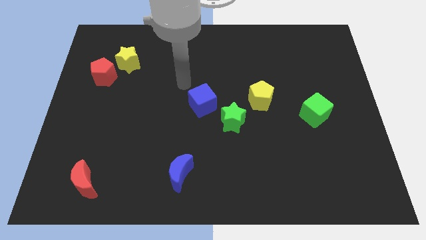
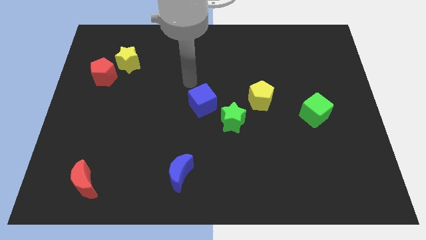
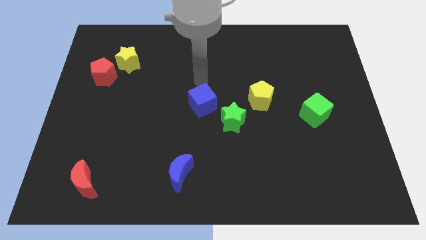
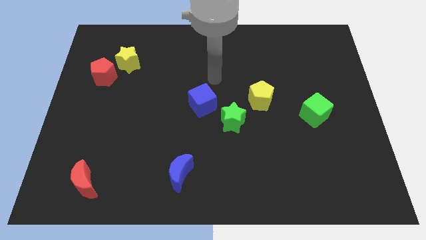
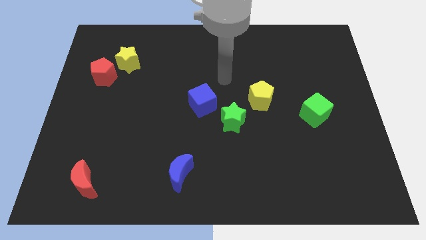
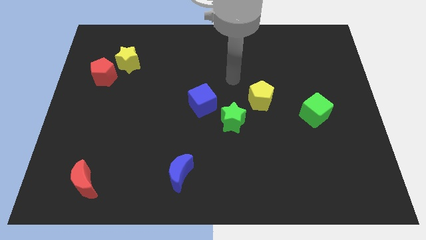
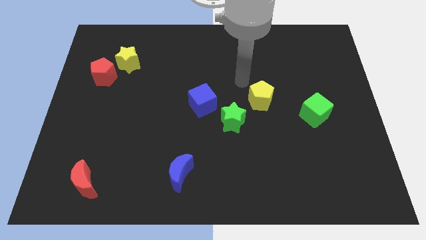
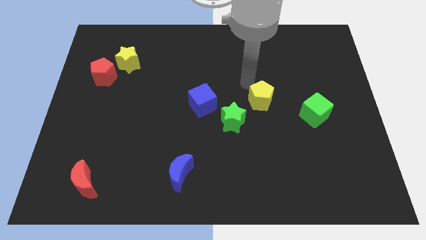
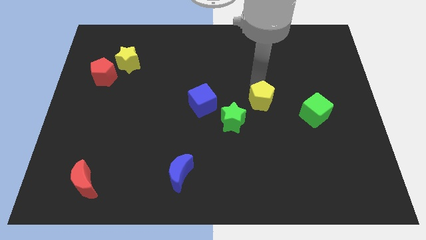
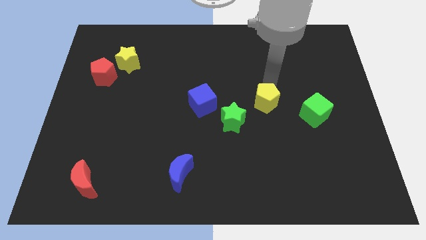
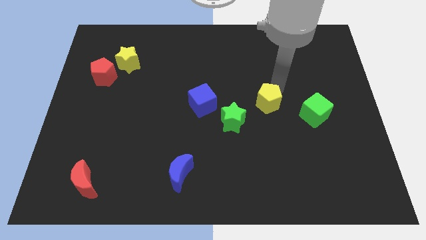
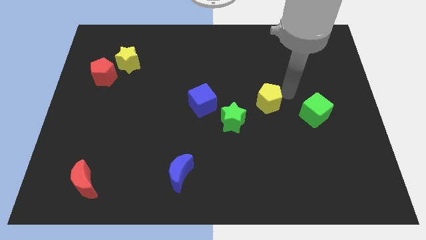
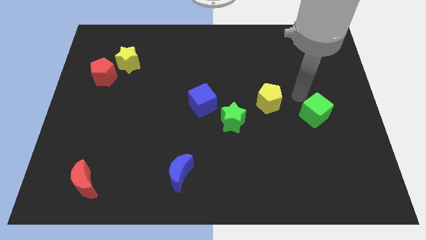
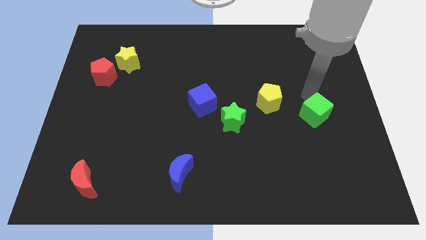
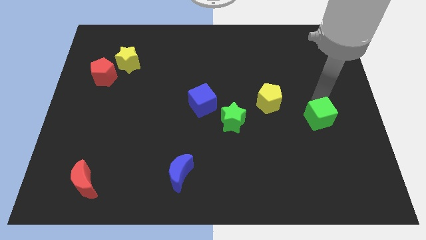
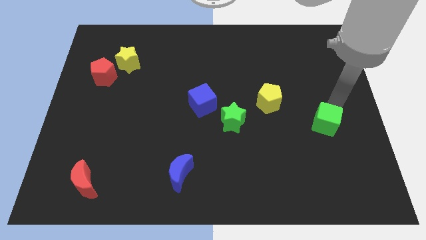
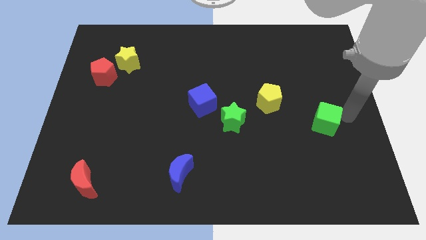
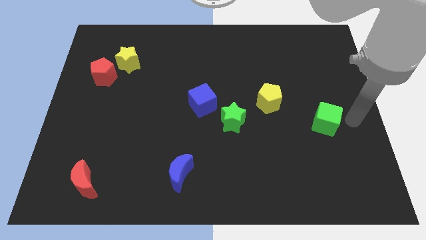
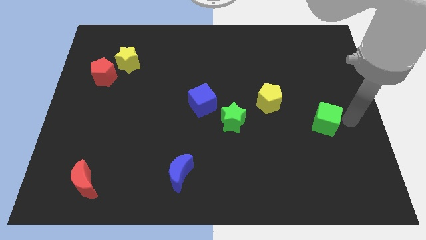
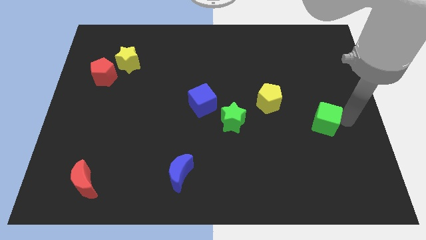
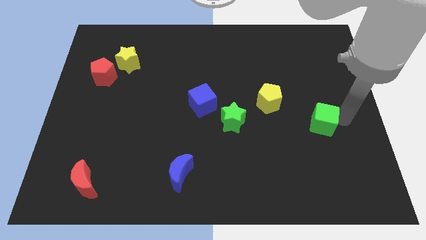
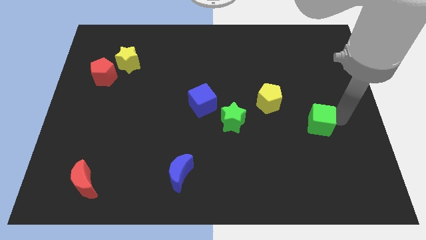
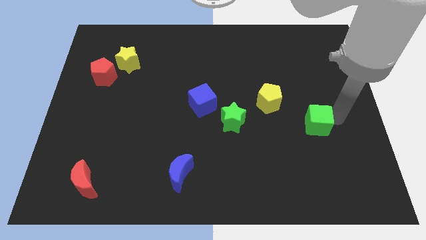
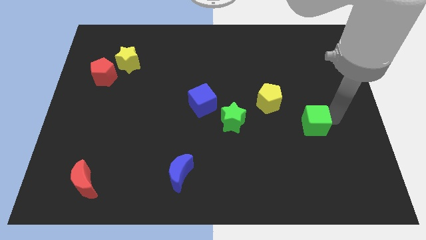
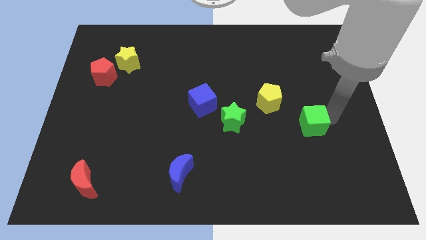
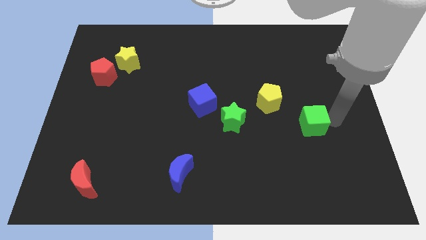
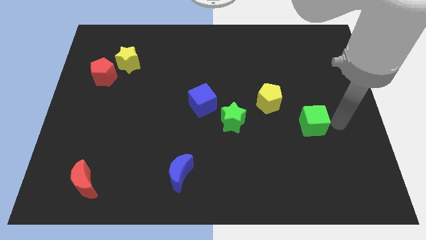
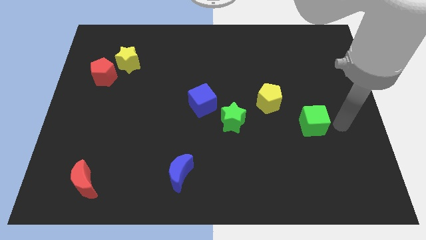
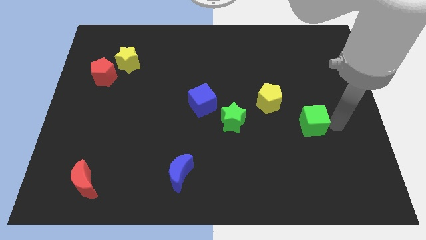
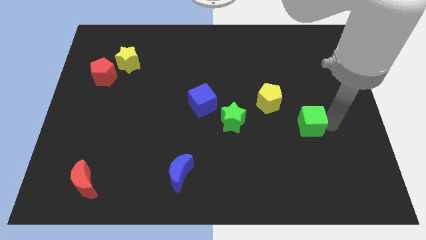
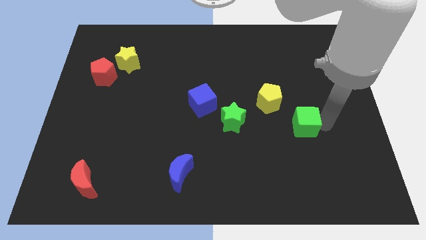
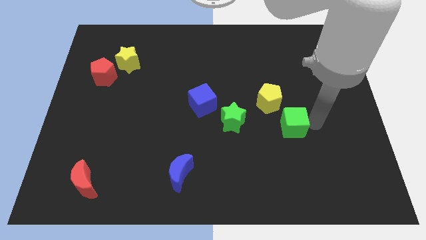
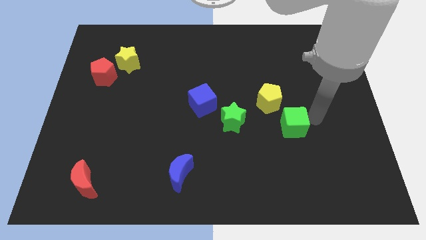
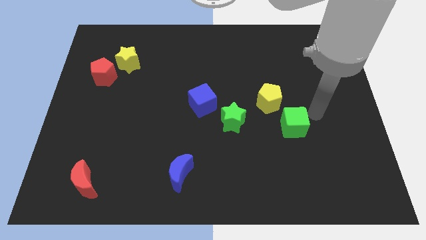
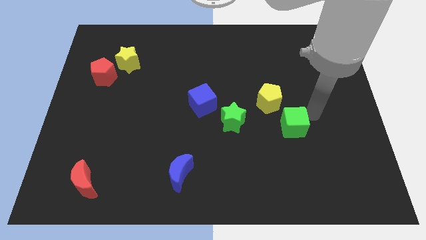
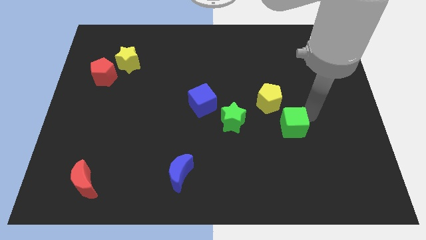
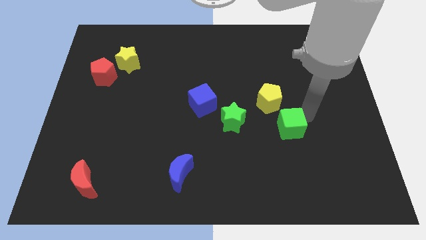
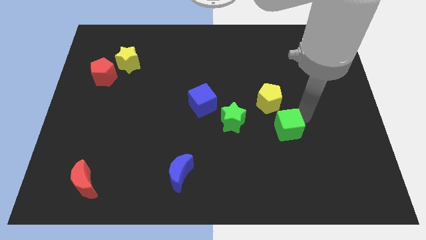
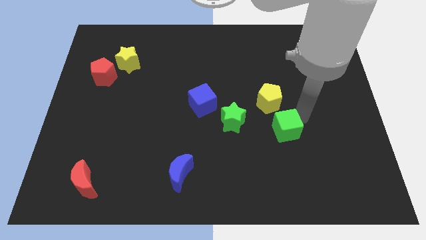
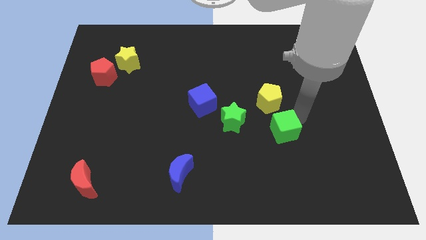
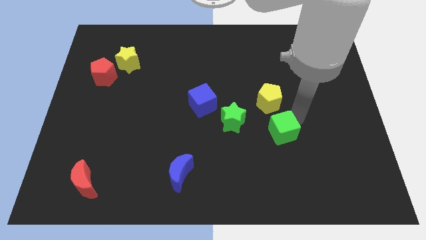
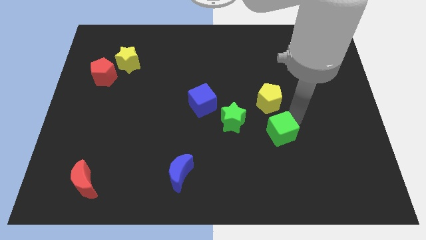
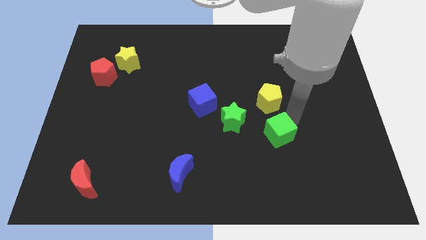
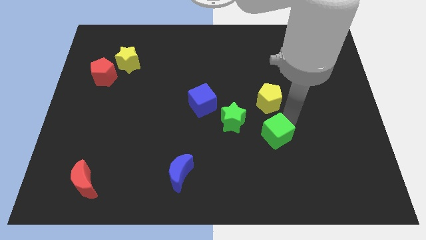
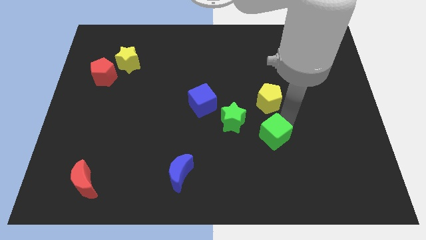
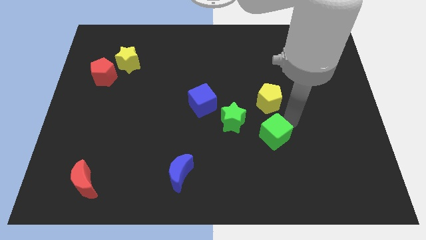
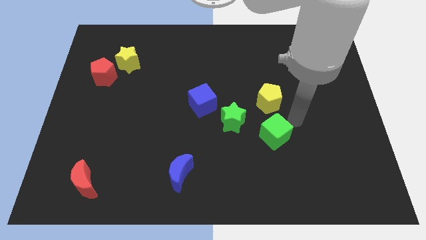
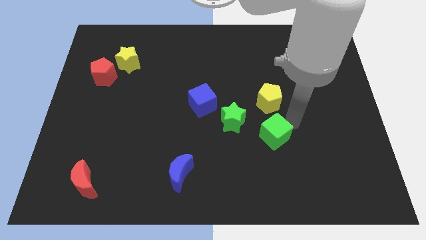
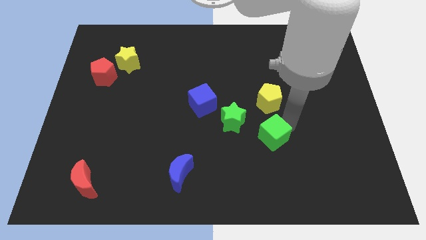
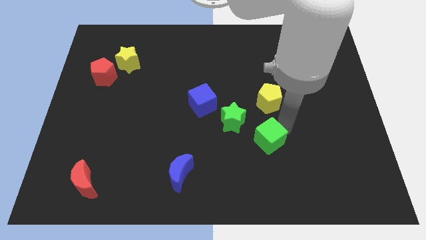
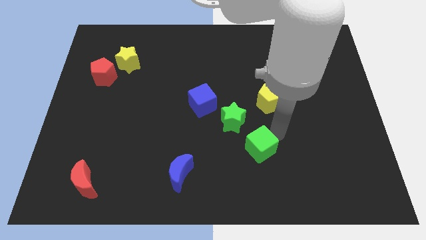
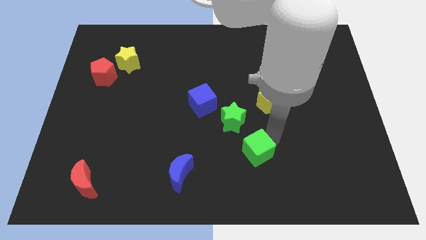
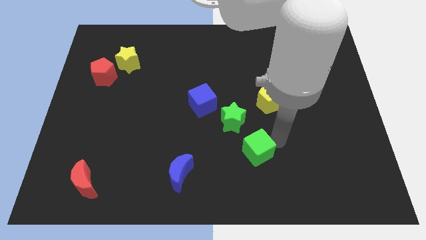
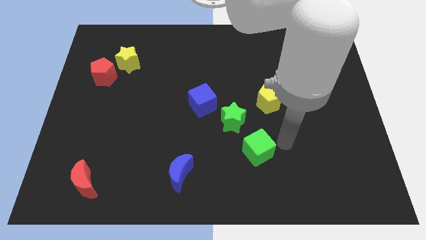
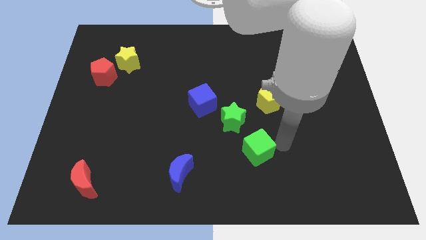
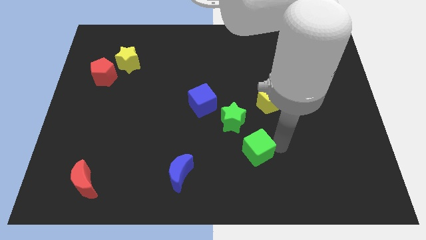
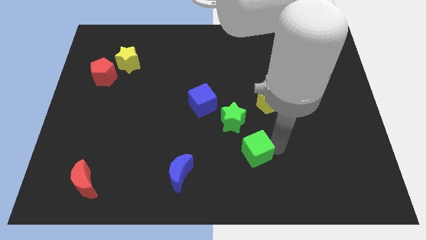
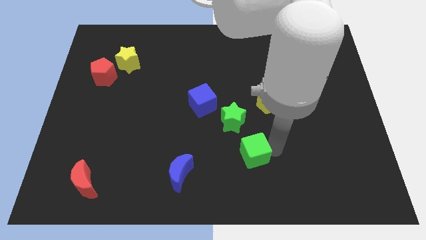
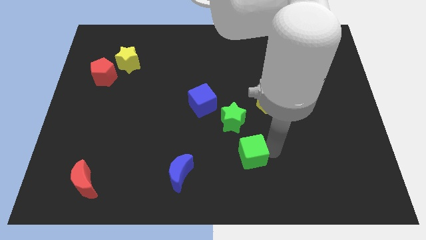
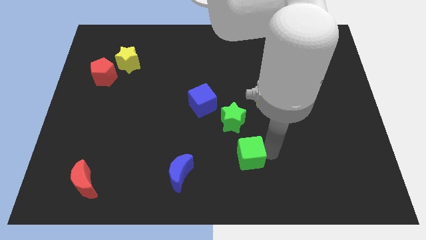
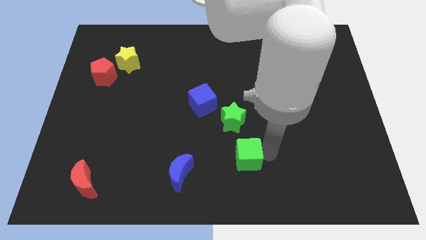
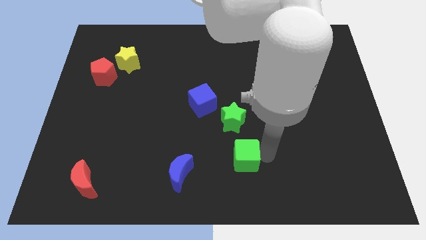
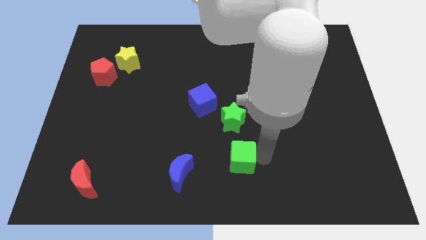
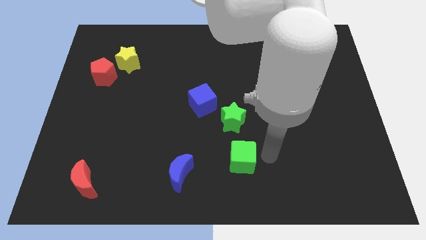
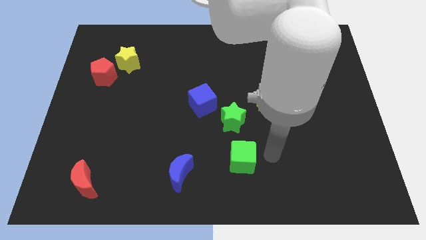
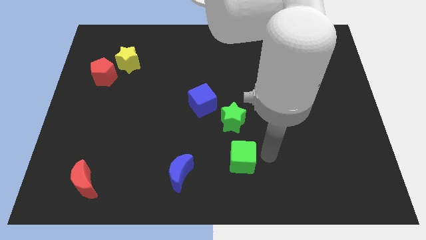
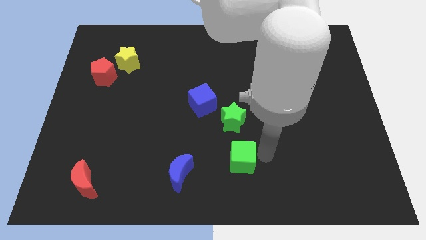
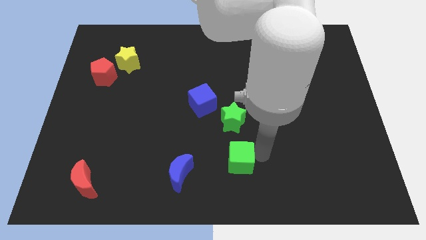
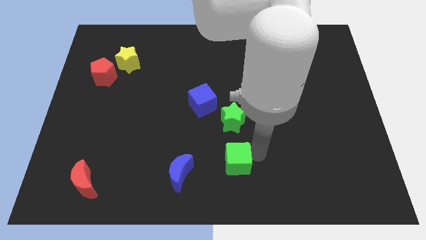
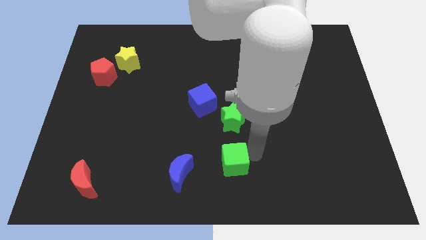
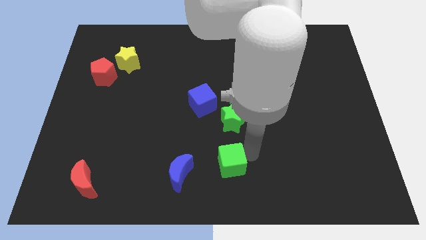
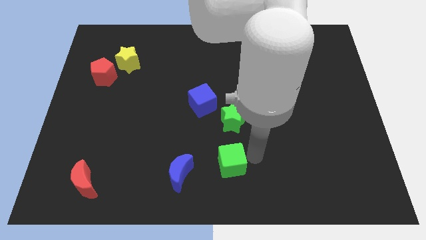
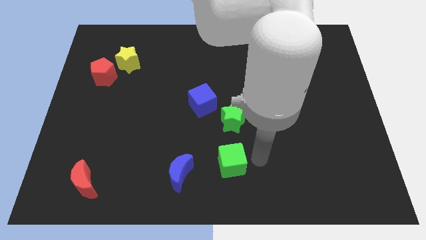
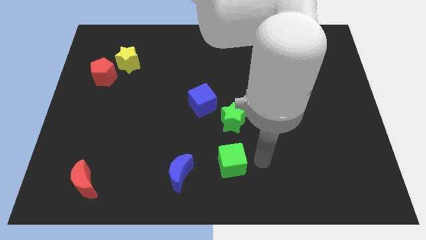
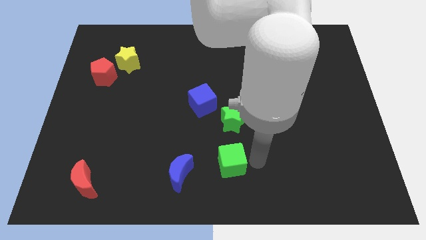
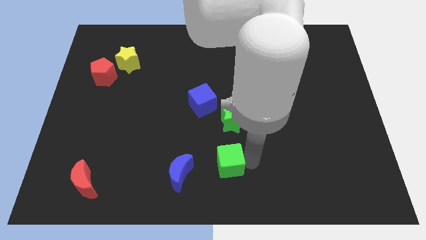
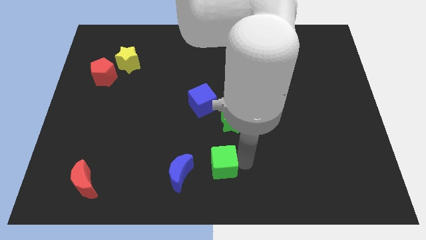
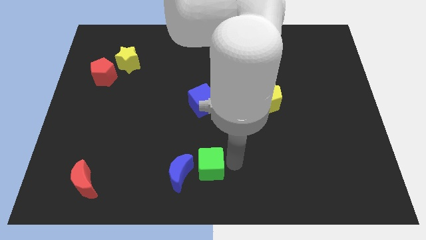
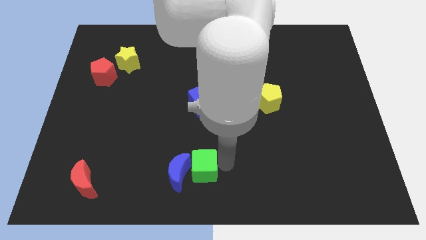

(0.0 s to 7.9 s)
slide the green cube close to the blue moon

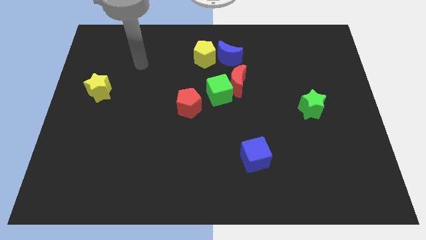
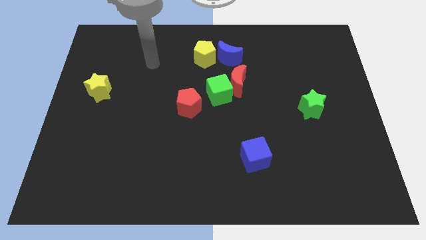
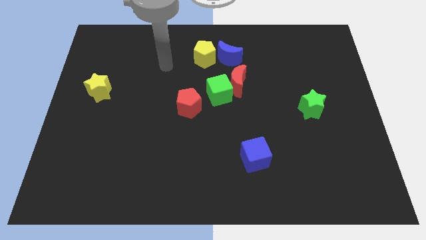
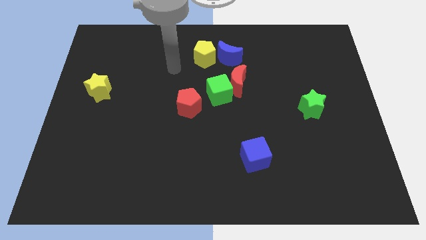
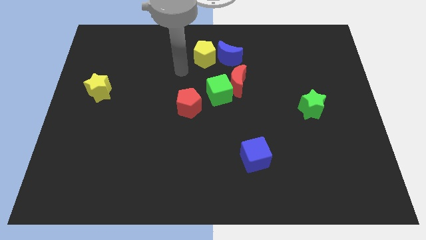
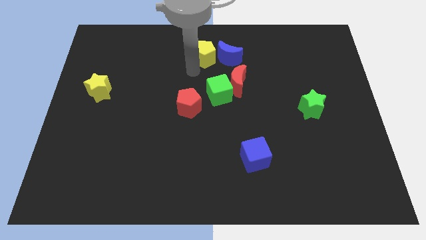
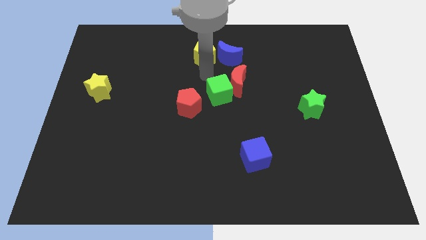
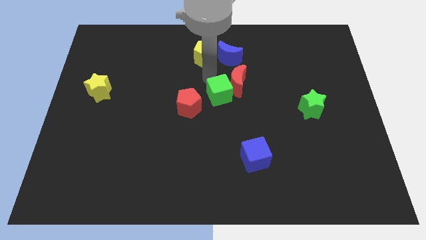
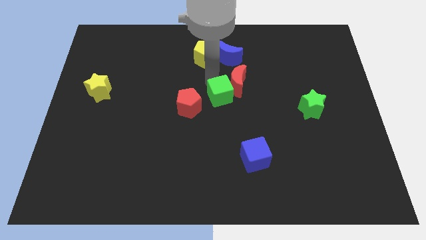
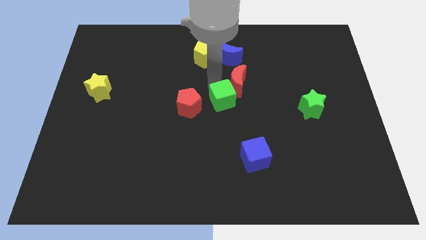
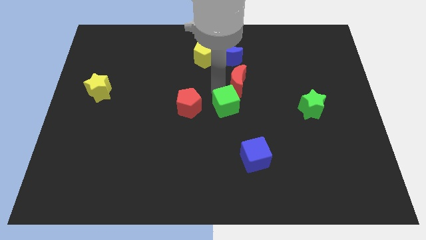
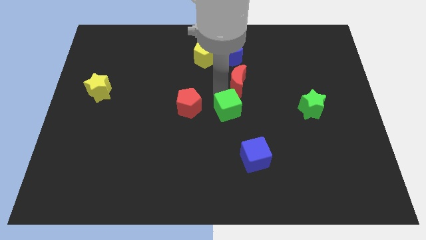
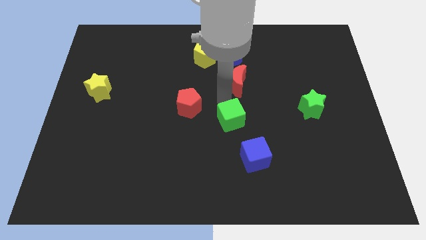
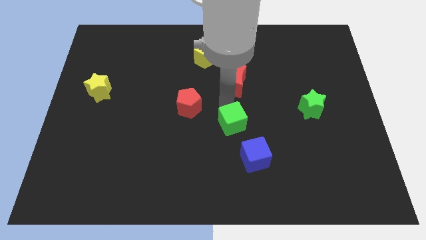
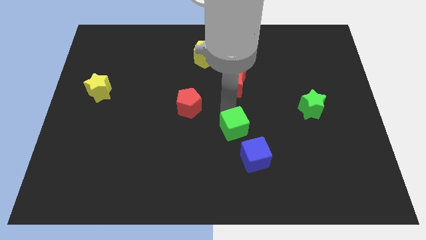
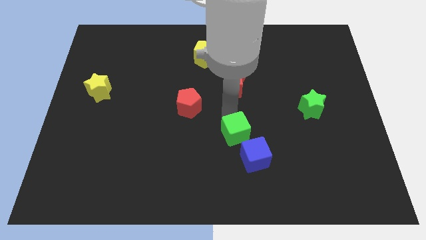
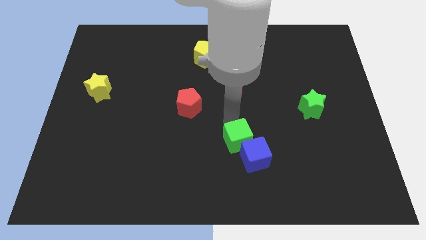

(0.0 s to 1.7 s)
slide the green cube towards the blue cube
